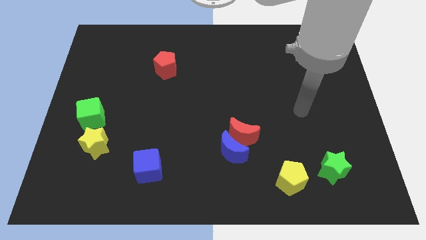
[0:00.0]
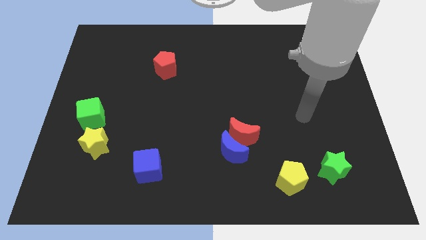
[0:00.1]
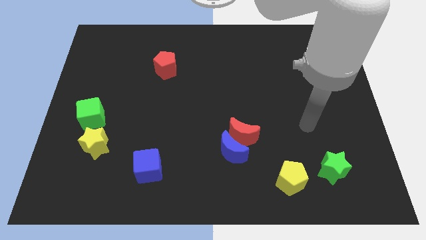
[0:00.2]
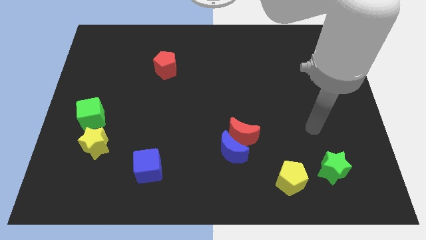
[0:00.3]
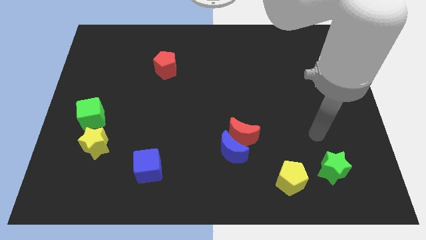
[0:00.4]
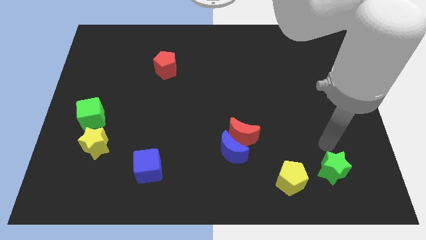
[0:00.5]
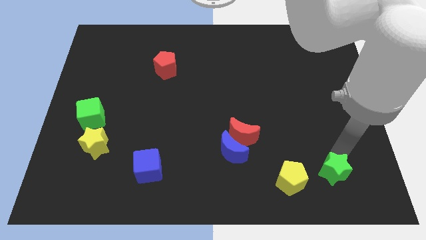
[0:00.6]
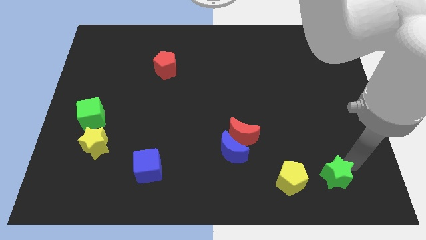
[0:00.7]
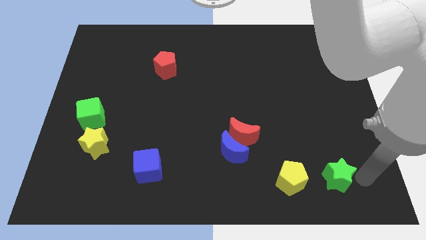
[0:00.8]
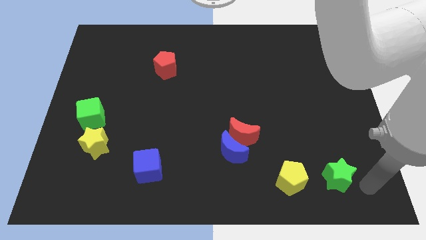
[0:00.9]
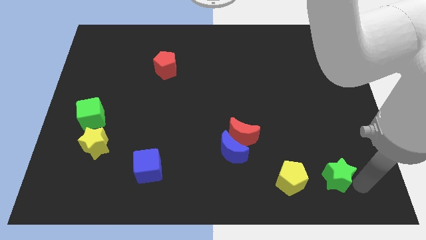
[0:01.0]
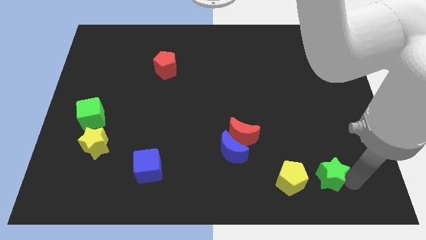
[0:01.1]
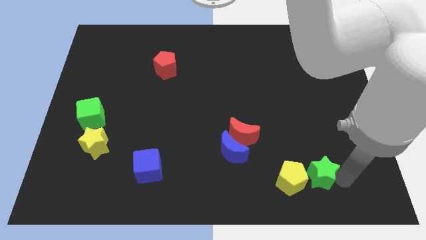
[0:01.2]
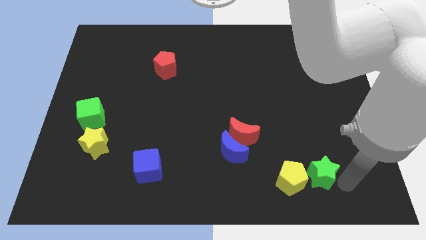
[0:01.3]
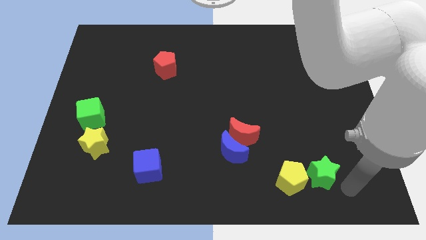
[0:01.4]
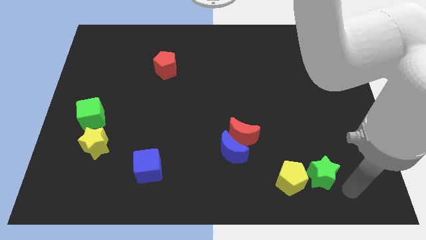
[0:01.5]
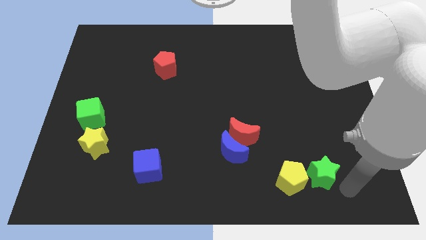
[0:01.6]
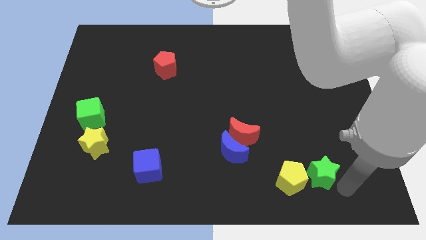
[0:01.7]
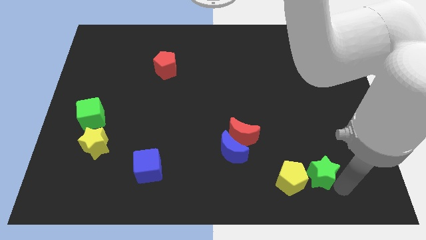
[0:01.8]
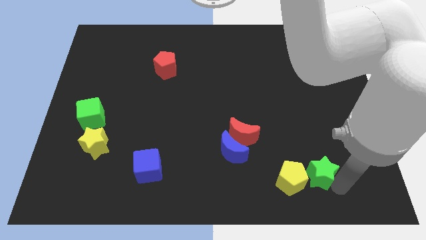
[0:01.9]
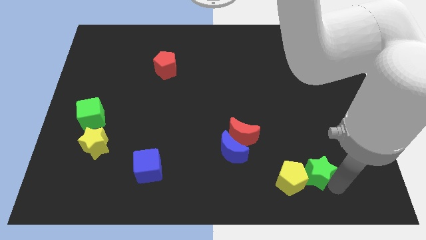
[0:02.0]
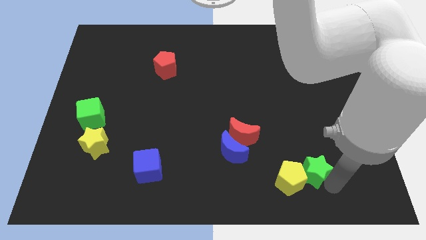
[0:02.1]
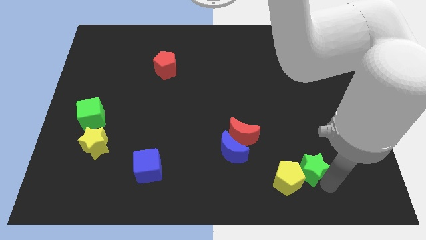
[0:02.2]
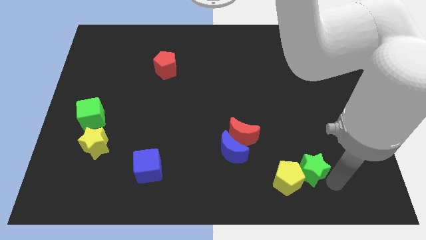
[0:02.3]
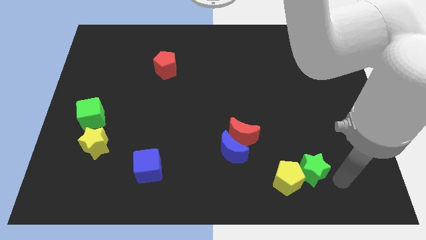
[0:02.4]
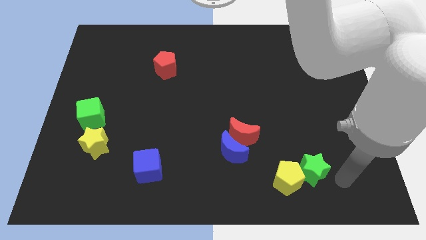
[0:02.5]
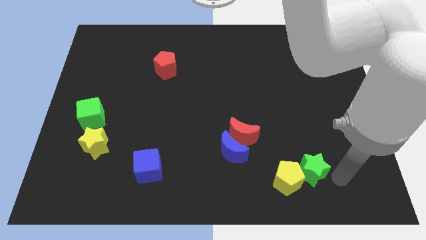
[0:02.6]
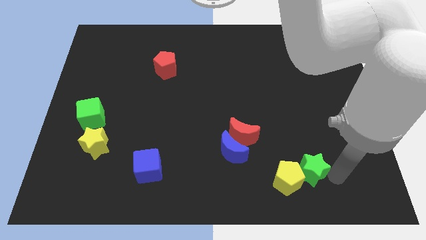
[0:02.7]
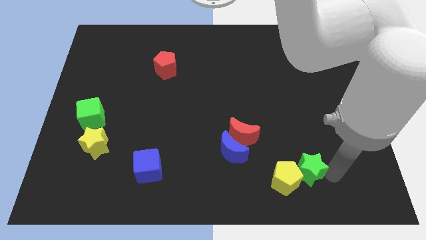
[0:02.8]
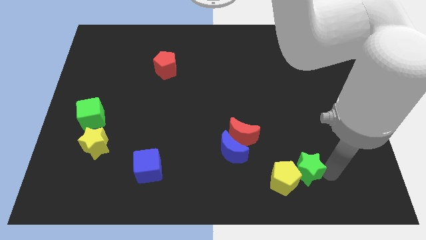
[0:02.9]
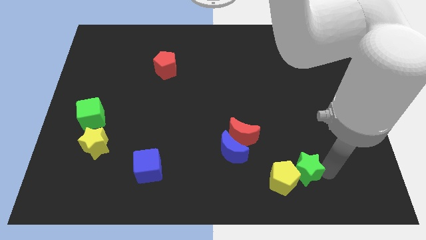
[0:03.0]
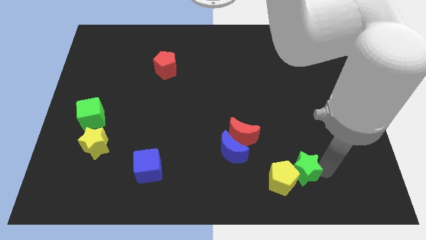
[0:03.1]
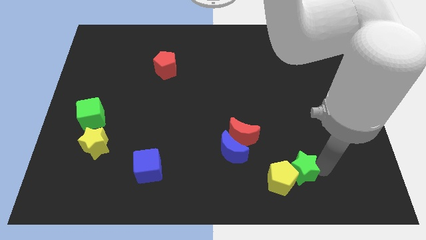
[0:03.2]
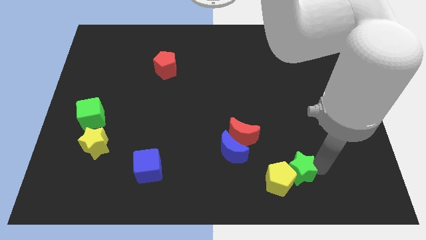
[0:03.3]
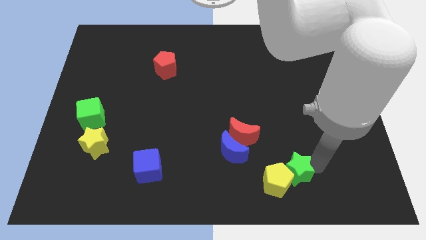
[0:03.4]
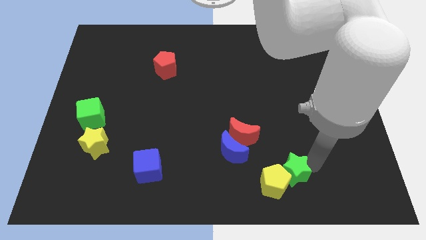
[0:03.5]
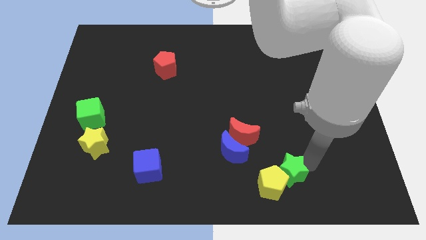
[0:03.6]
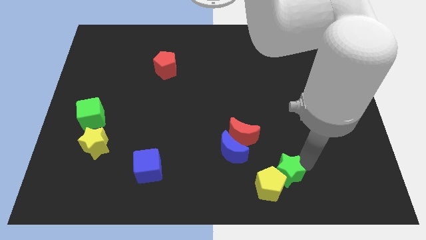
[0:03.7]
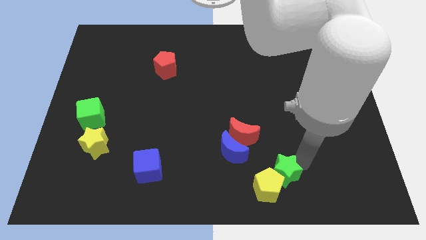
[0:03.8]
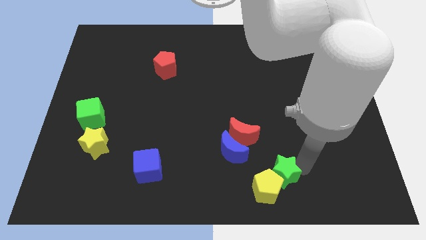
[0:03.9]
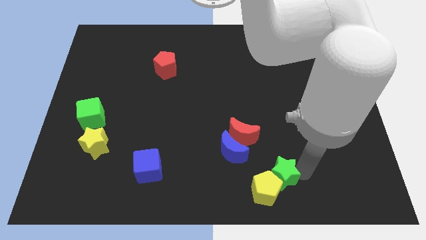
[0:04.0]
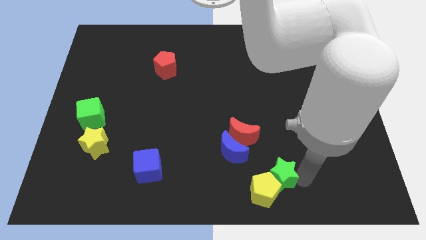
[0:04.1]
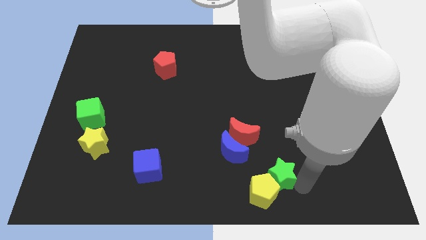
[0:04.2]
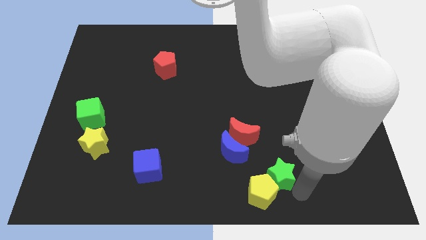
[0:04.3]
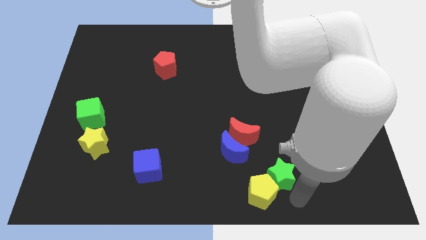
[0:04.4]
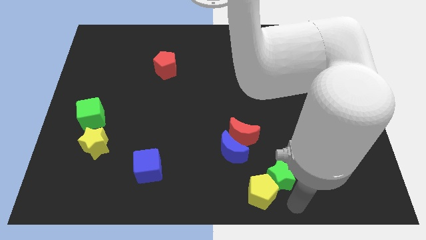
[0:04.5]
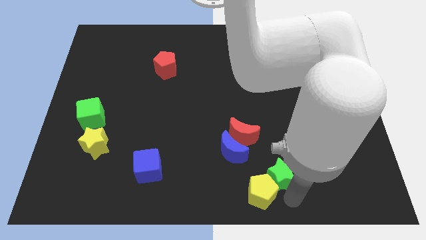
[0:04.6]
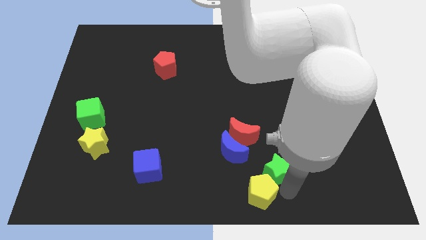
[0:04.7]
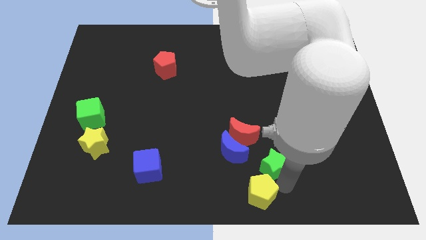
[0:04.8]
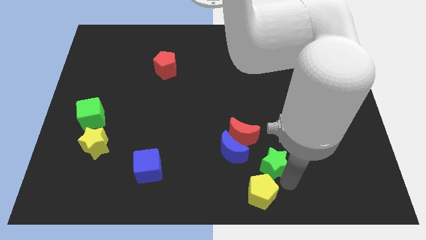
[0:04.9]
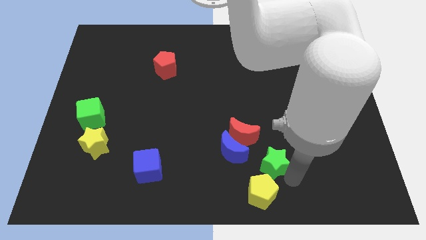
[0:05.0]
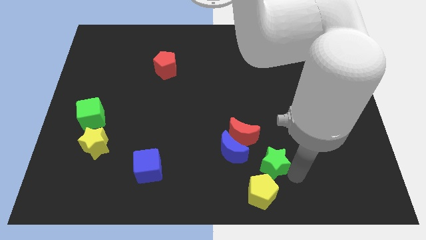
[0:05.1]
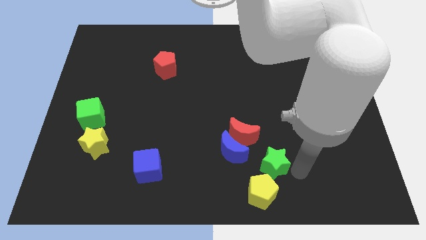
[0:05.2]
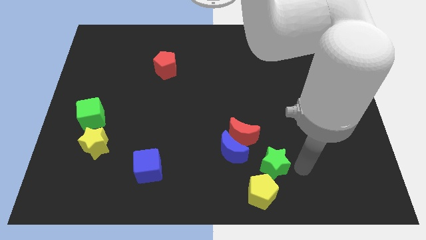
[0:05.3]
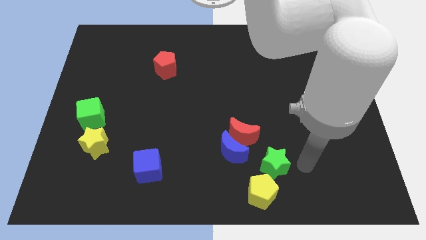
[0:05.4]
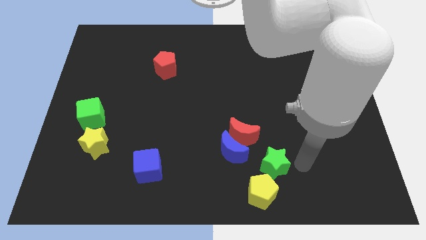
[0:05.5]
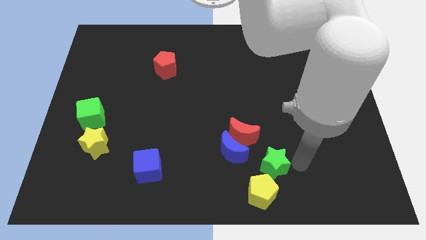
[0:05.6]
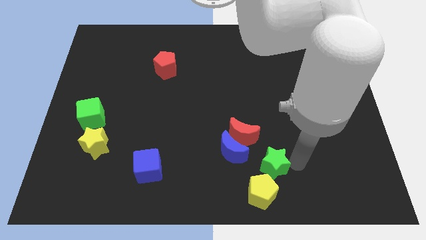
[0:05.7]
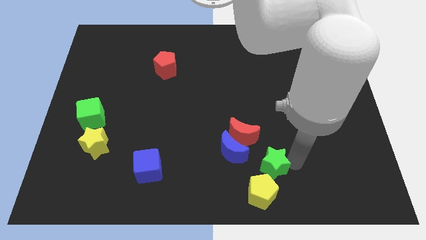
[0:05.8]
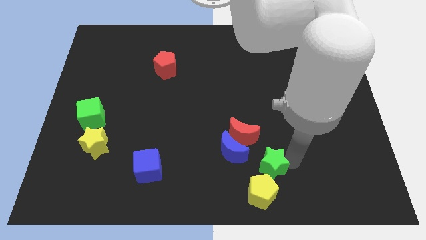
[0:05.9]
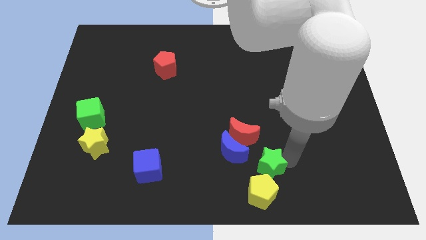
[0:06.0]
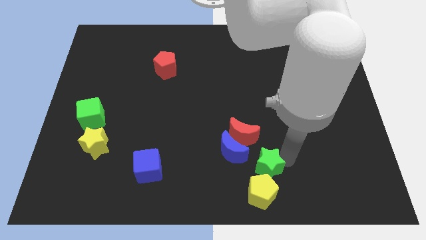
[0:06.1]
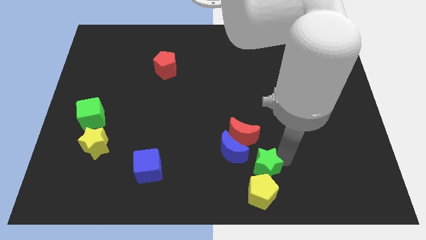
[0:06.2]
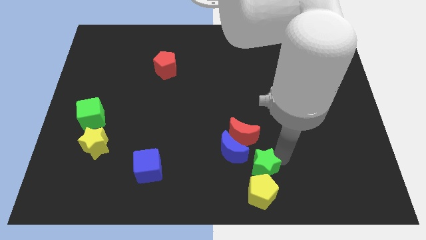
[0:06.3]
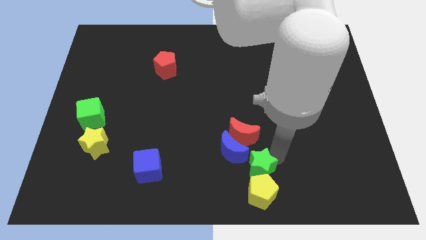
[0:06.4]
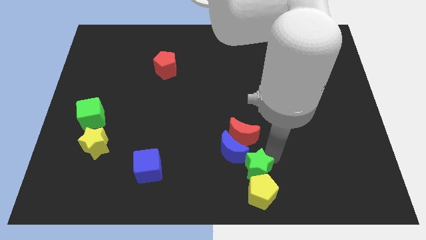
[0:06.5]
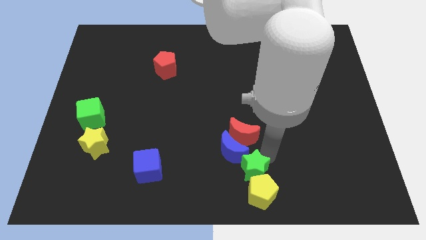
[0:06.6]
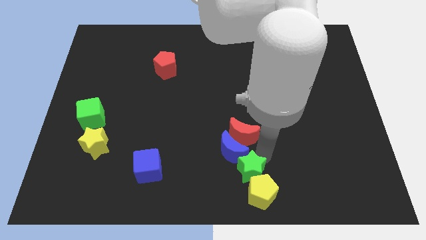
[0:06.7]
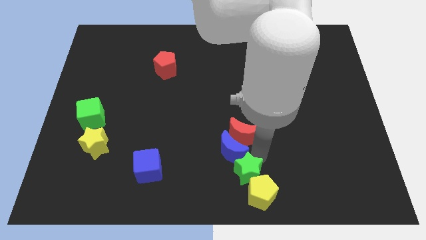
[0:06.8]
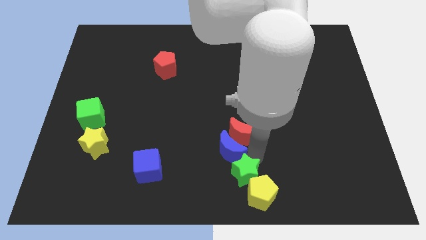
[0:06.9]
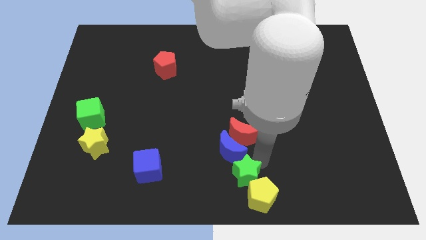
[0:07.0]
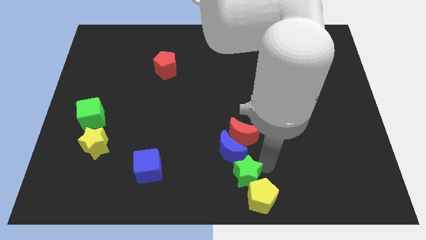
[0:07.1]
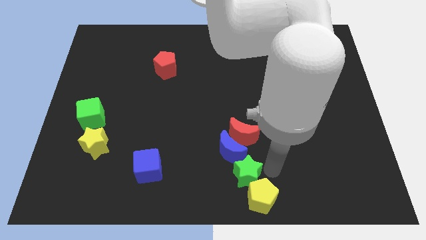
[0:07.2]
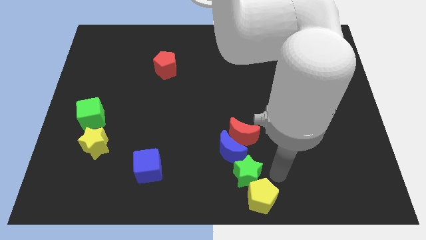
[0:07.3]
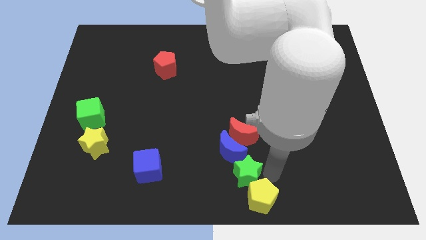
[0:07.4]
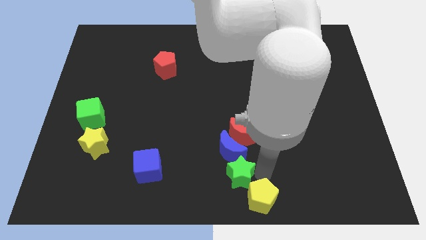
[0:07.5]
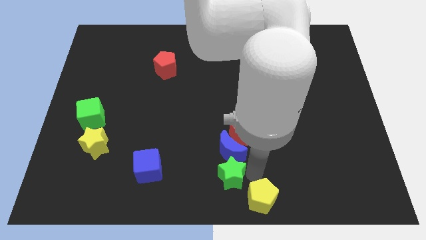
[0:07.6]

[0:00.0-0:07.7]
push the green star left

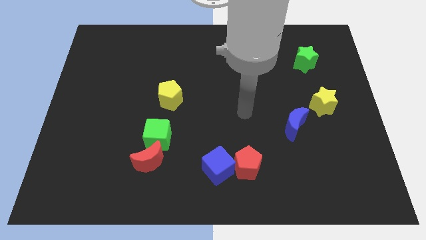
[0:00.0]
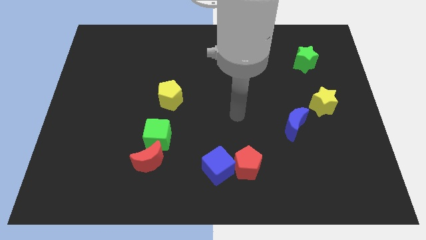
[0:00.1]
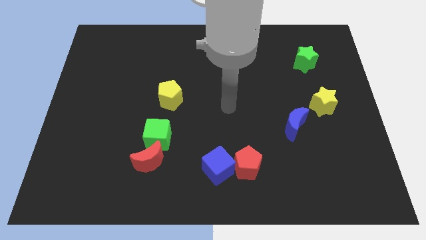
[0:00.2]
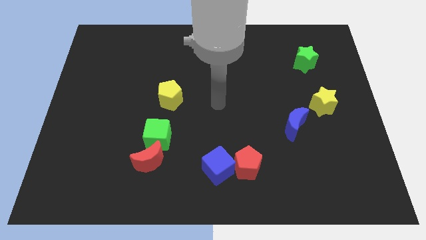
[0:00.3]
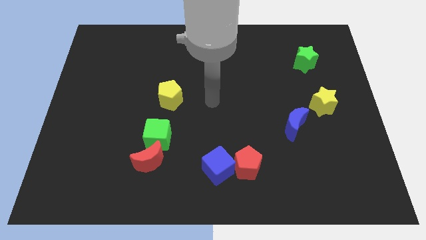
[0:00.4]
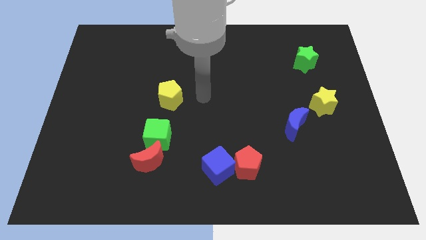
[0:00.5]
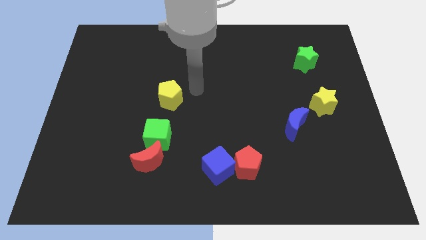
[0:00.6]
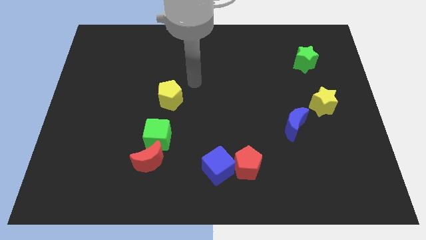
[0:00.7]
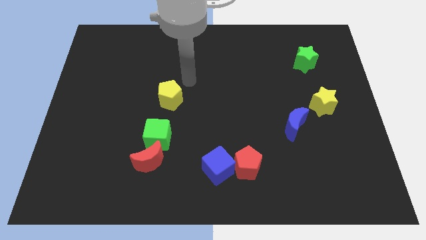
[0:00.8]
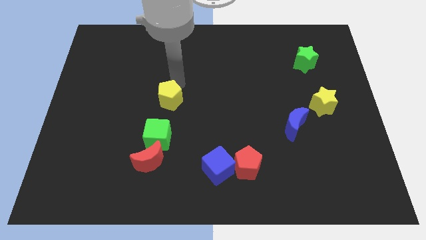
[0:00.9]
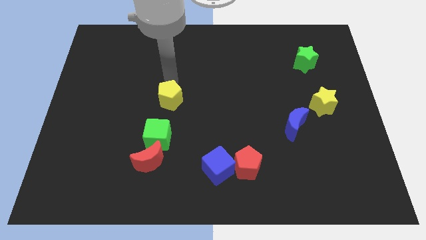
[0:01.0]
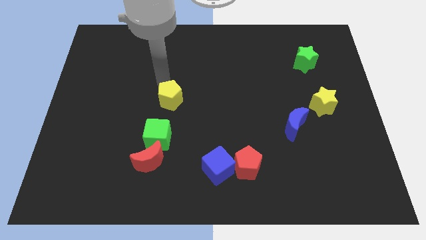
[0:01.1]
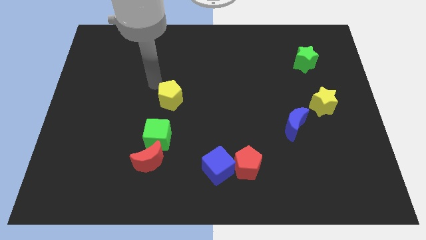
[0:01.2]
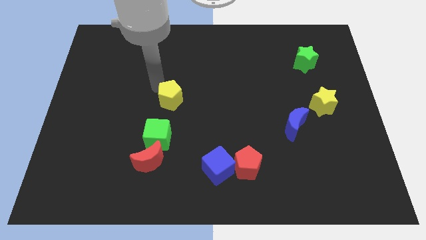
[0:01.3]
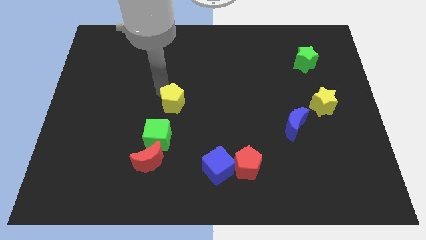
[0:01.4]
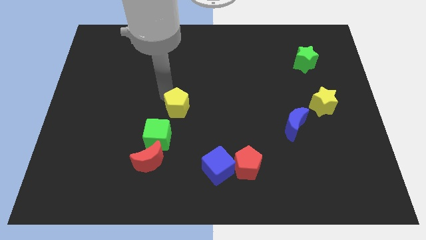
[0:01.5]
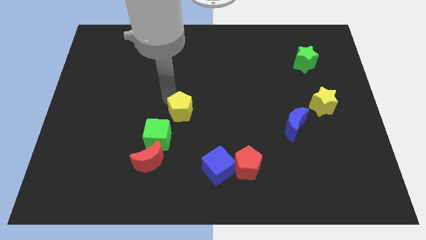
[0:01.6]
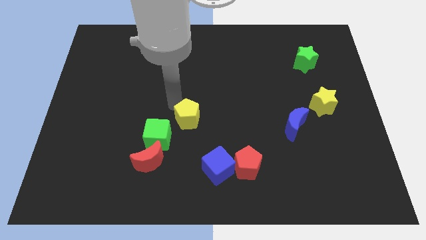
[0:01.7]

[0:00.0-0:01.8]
slightly move the yellow pentagon down and then to the right
